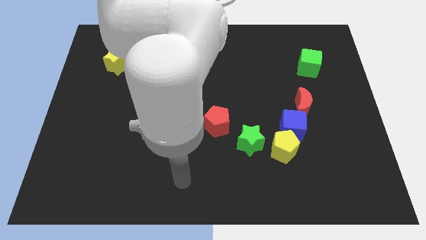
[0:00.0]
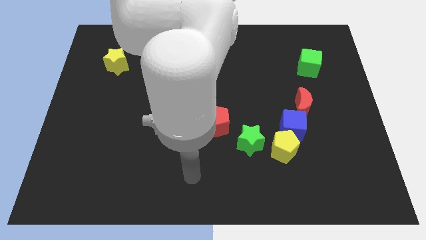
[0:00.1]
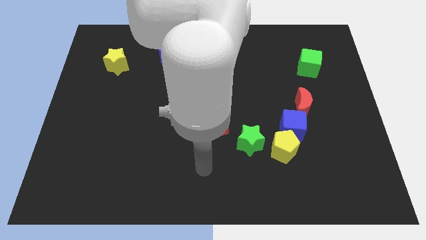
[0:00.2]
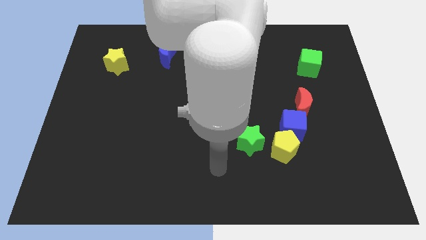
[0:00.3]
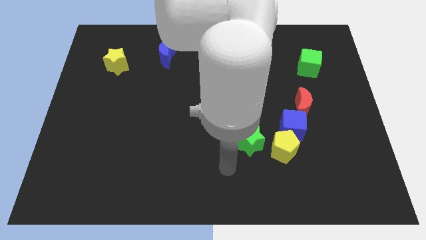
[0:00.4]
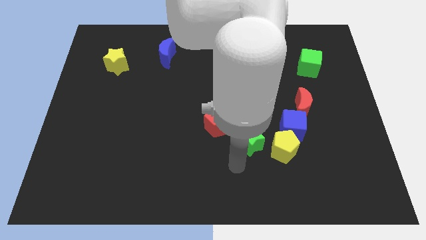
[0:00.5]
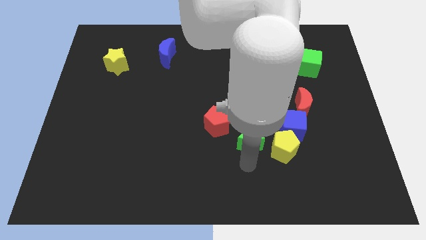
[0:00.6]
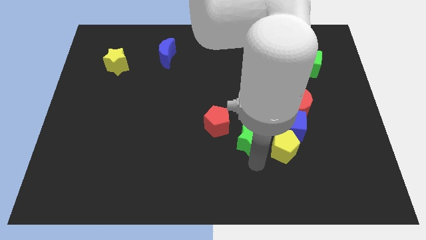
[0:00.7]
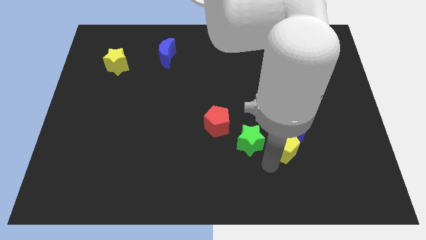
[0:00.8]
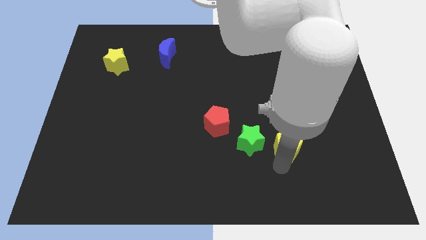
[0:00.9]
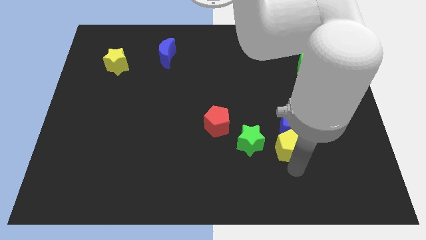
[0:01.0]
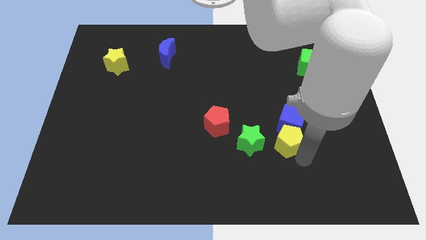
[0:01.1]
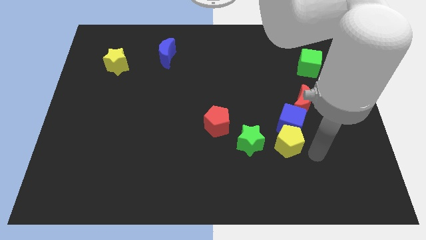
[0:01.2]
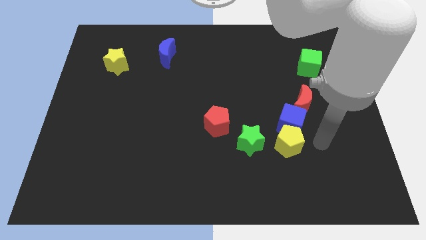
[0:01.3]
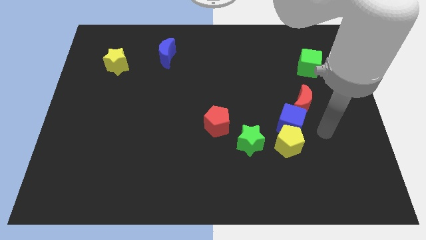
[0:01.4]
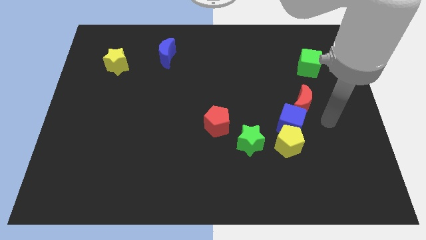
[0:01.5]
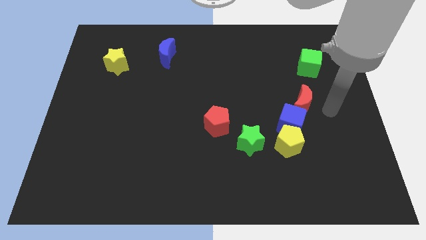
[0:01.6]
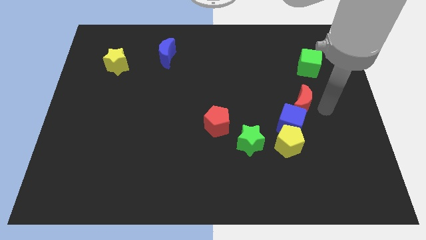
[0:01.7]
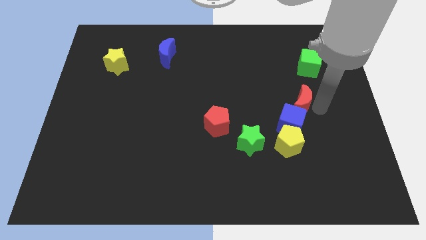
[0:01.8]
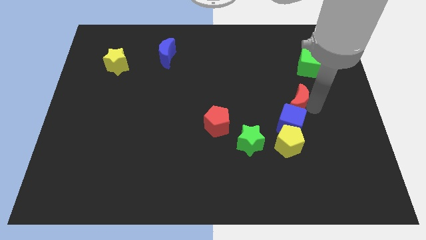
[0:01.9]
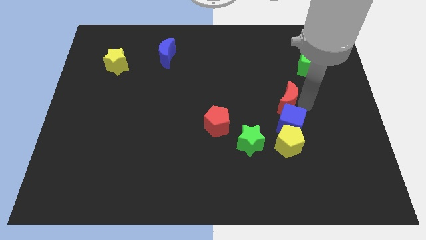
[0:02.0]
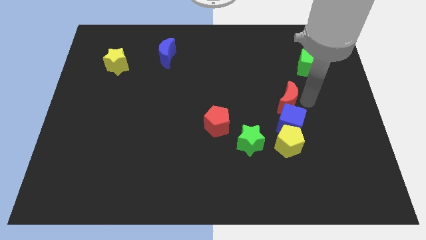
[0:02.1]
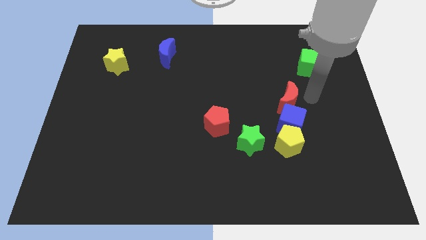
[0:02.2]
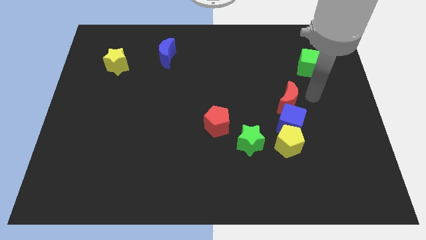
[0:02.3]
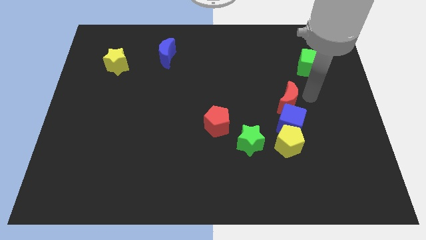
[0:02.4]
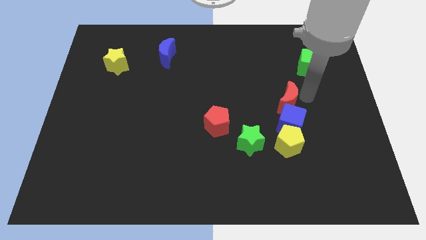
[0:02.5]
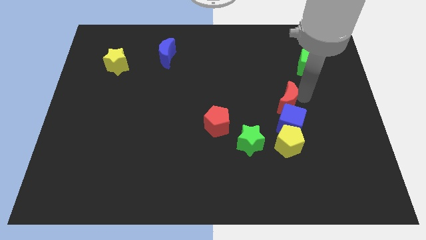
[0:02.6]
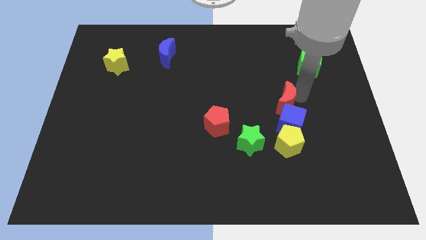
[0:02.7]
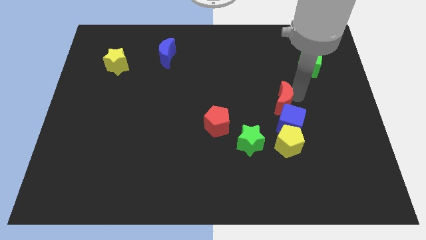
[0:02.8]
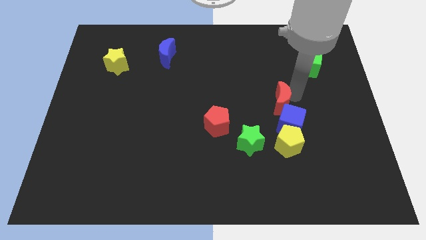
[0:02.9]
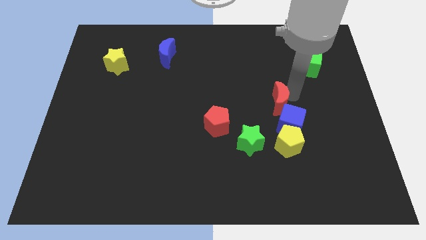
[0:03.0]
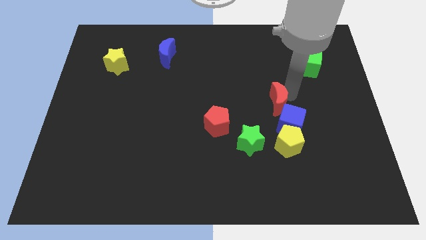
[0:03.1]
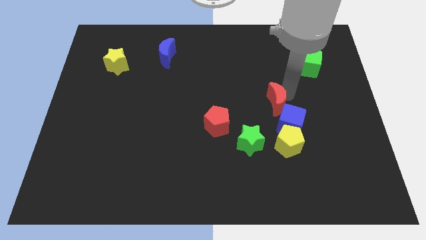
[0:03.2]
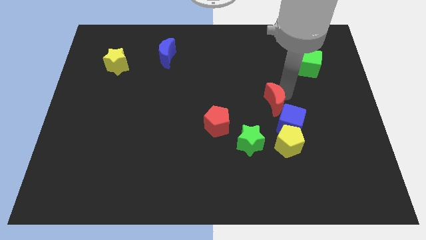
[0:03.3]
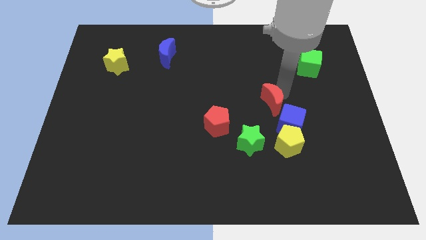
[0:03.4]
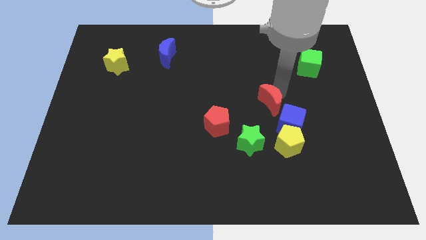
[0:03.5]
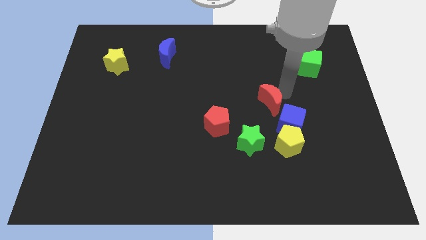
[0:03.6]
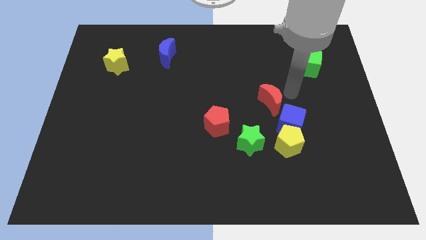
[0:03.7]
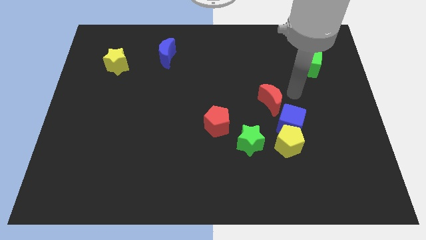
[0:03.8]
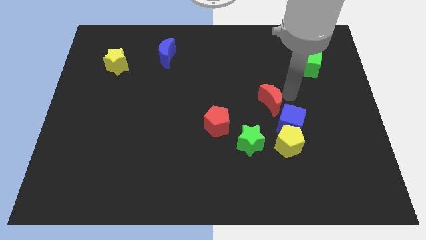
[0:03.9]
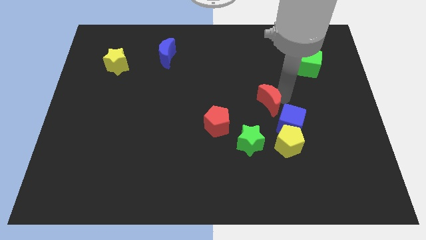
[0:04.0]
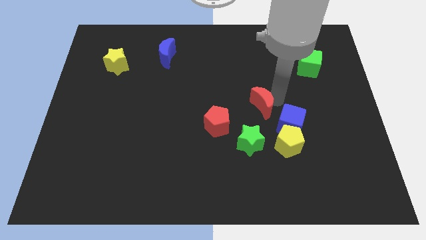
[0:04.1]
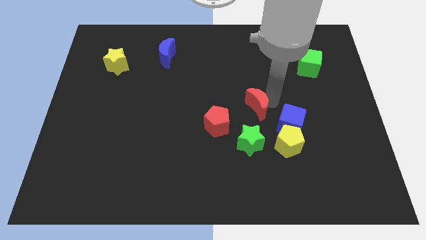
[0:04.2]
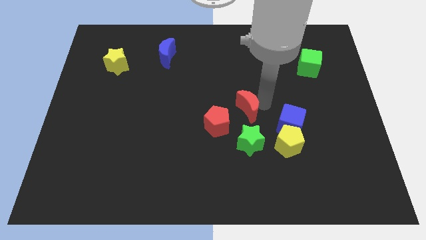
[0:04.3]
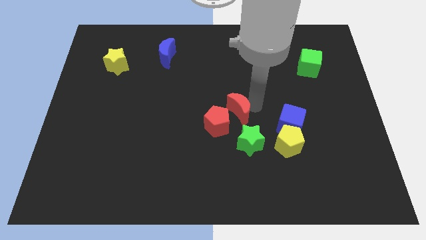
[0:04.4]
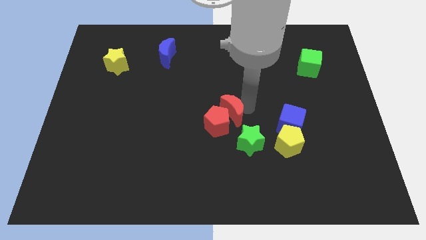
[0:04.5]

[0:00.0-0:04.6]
move the red moon to the red pentagon

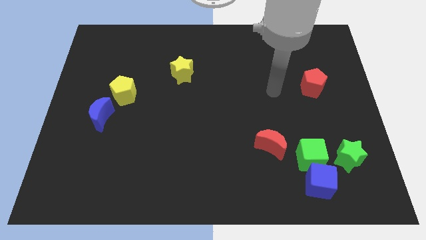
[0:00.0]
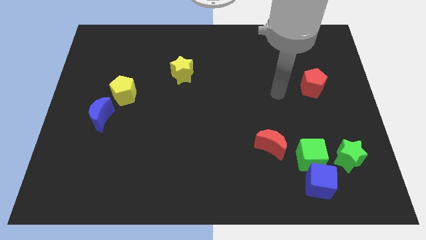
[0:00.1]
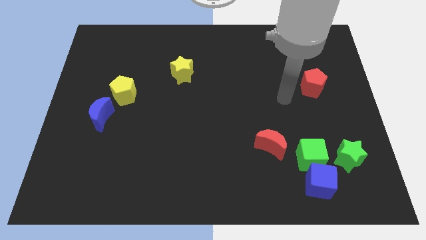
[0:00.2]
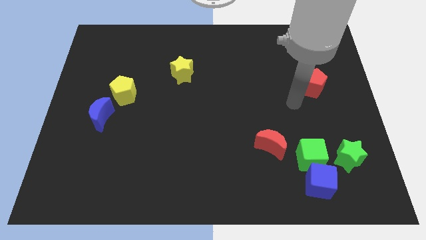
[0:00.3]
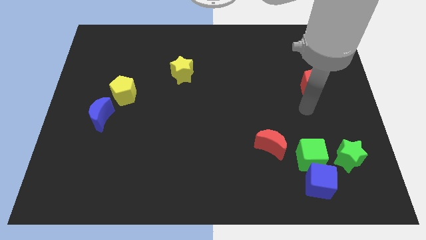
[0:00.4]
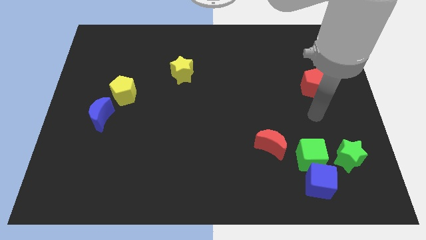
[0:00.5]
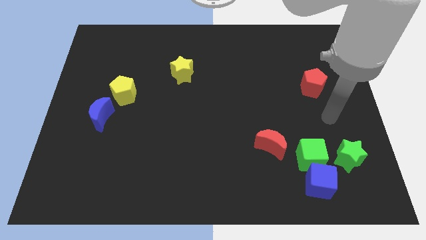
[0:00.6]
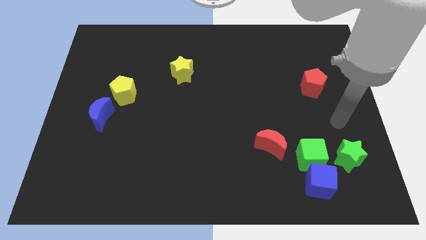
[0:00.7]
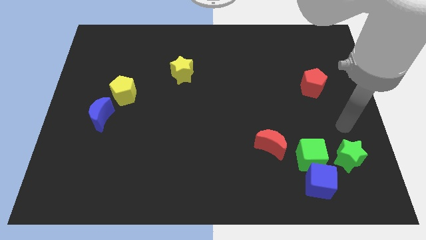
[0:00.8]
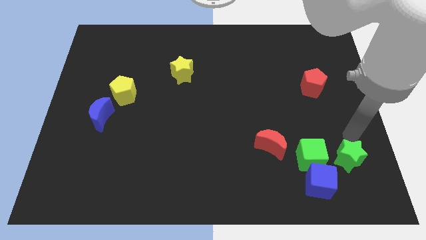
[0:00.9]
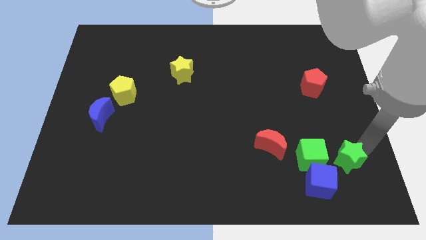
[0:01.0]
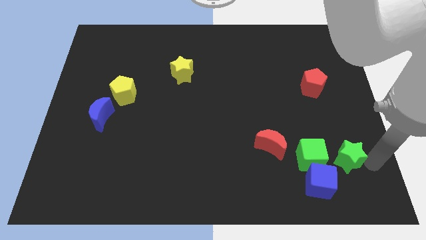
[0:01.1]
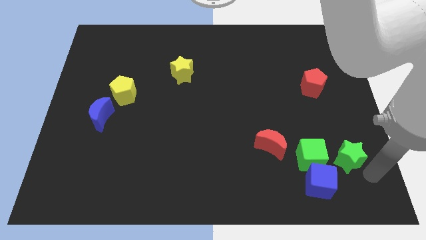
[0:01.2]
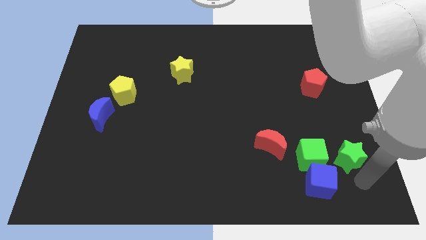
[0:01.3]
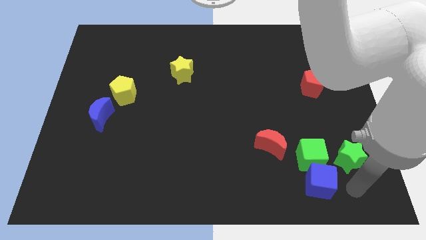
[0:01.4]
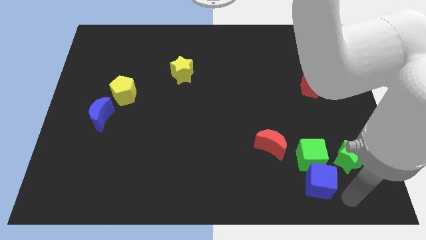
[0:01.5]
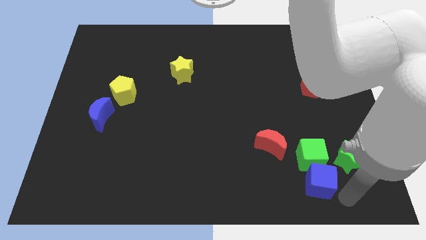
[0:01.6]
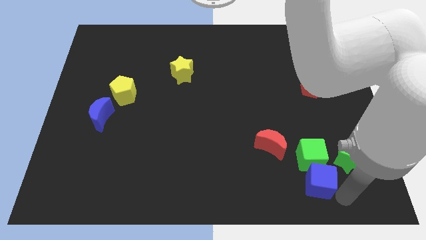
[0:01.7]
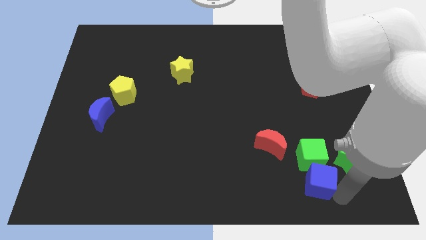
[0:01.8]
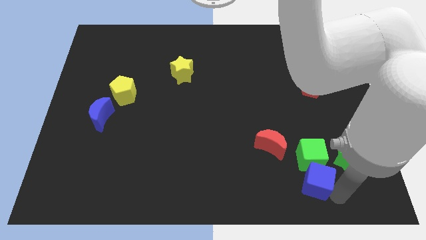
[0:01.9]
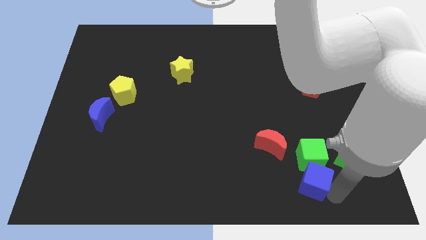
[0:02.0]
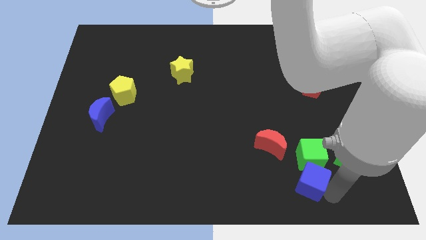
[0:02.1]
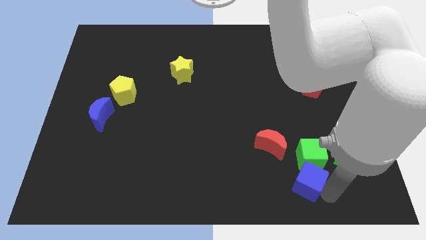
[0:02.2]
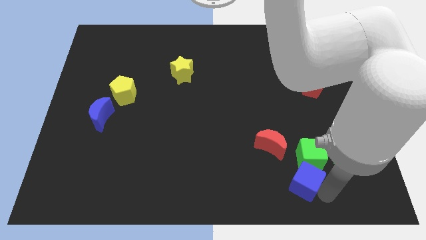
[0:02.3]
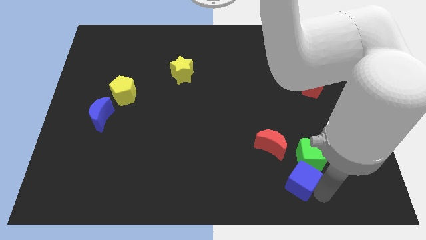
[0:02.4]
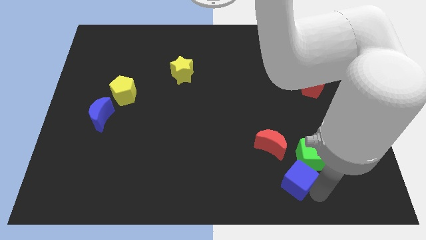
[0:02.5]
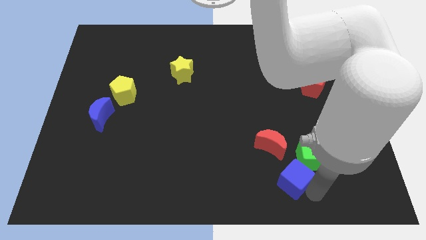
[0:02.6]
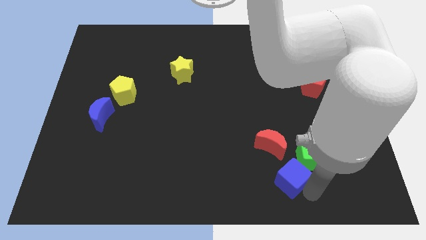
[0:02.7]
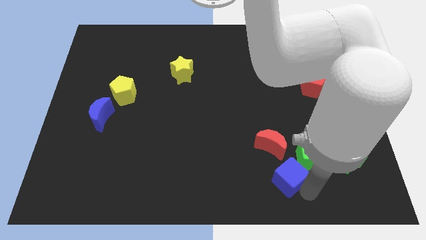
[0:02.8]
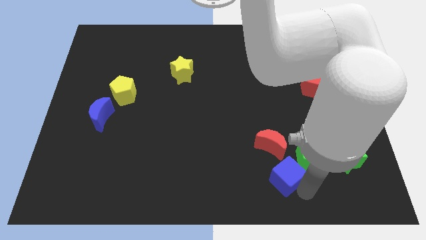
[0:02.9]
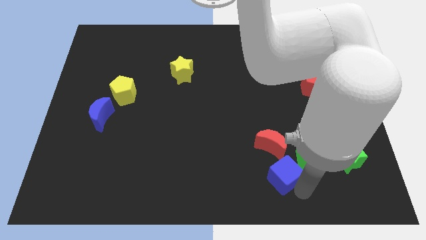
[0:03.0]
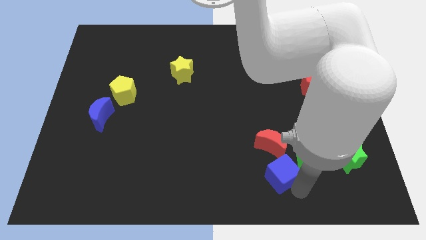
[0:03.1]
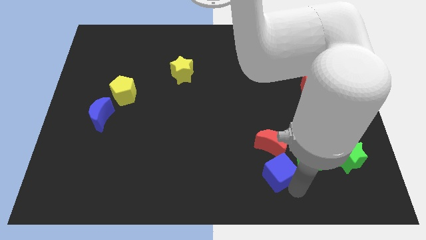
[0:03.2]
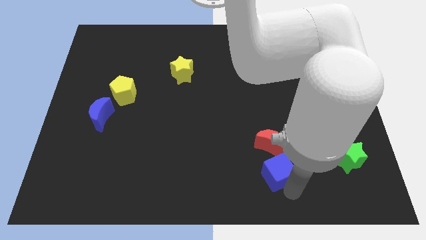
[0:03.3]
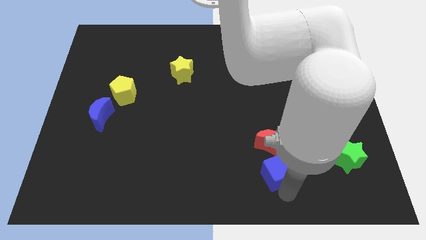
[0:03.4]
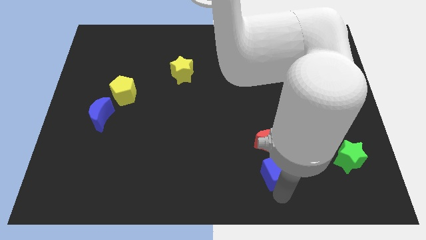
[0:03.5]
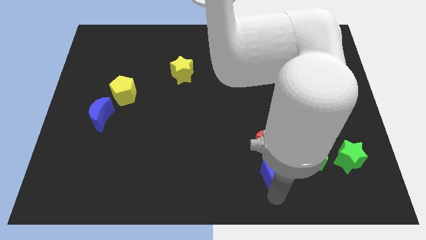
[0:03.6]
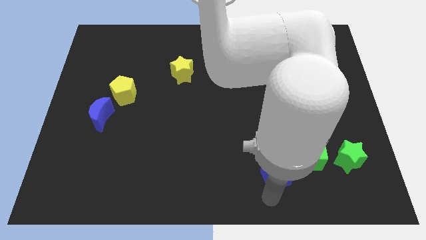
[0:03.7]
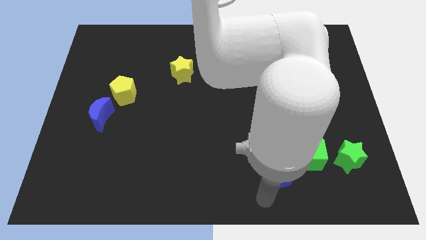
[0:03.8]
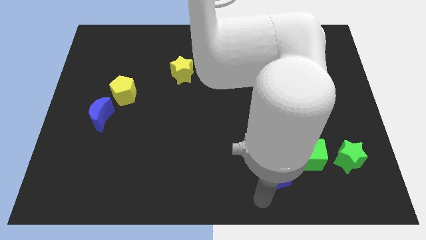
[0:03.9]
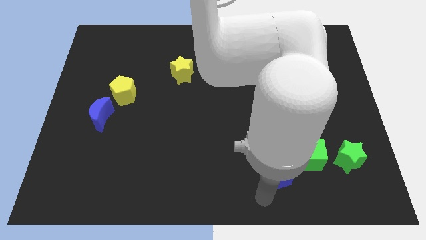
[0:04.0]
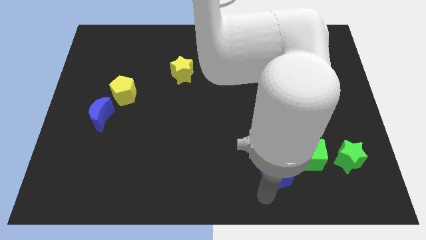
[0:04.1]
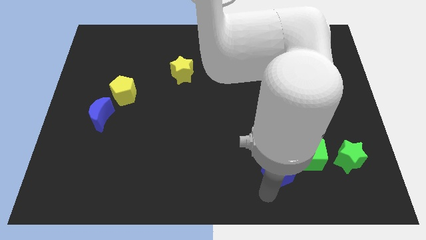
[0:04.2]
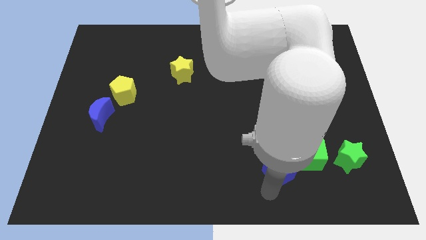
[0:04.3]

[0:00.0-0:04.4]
put the blue cube close to the red moon
